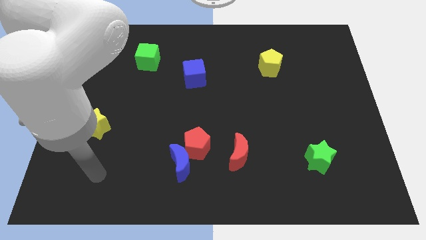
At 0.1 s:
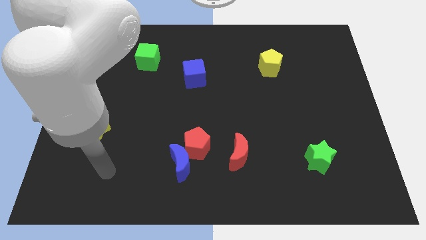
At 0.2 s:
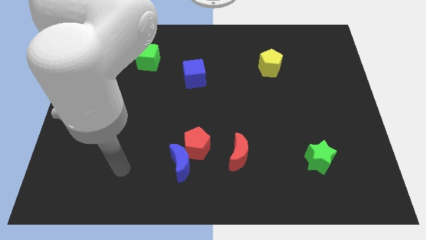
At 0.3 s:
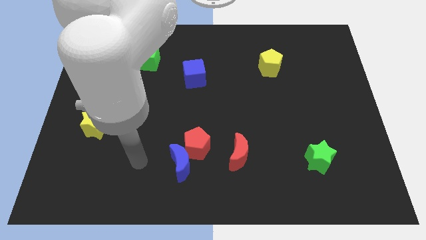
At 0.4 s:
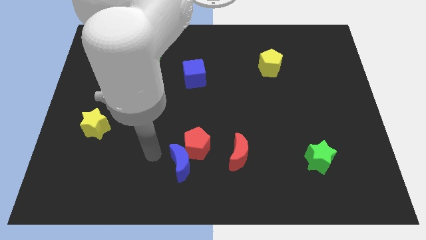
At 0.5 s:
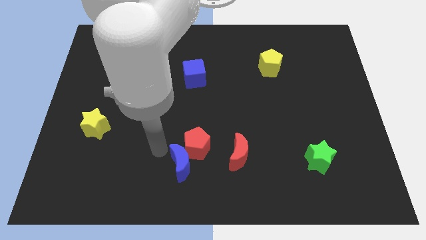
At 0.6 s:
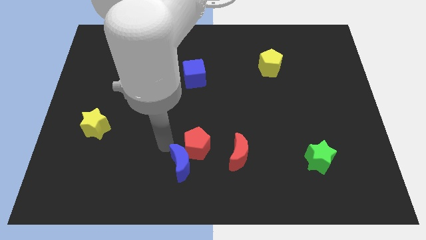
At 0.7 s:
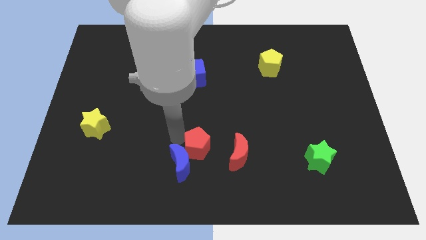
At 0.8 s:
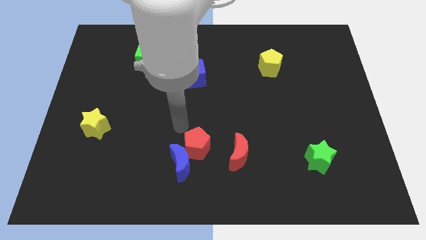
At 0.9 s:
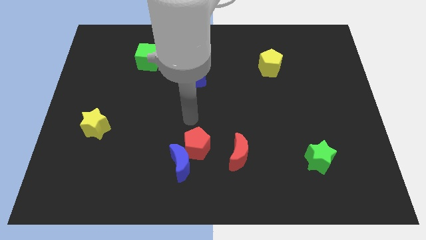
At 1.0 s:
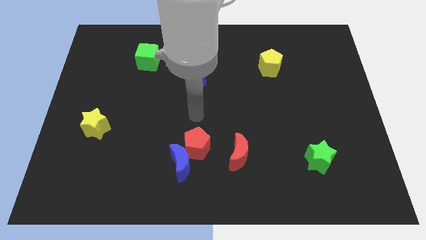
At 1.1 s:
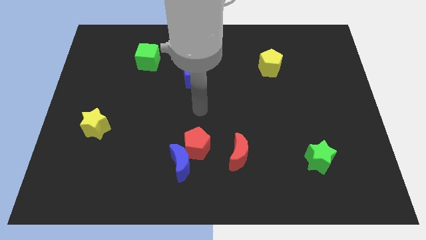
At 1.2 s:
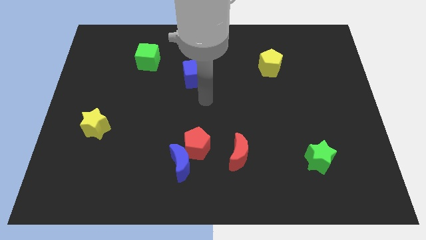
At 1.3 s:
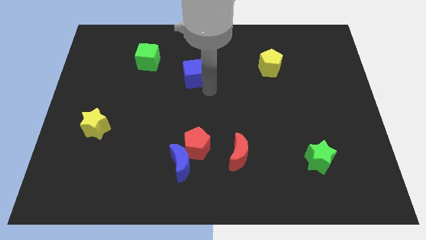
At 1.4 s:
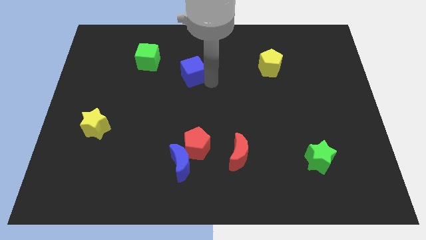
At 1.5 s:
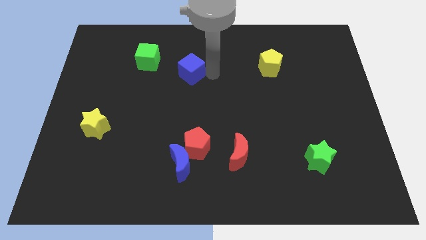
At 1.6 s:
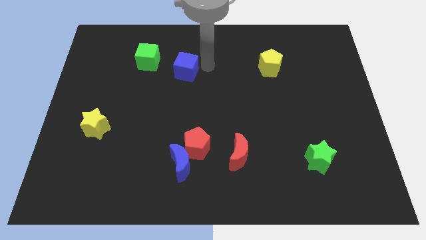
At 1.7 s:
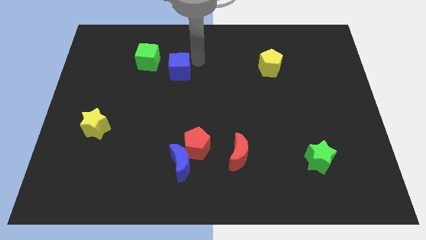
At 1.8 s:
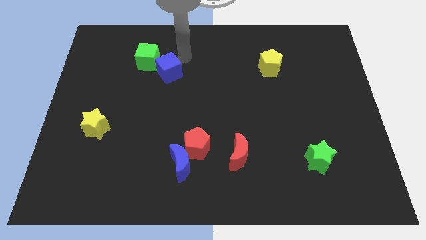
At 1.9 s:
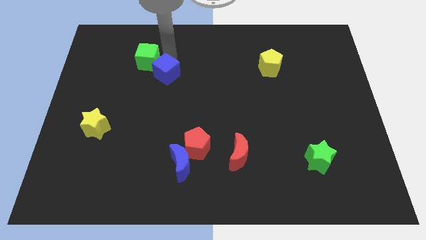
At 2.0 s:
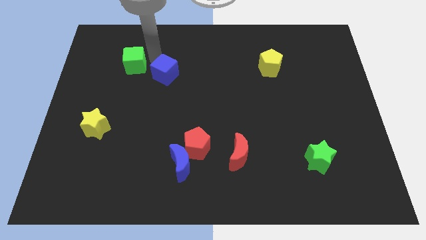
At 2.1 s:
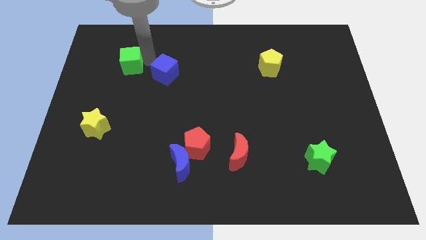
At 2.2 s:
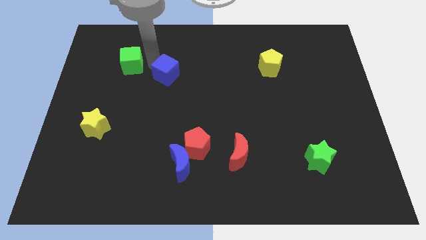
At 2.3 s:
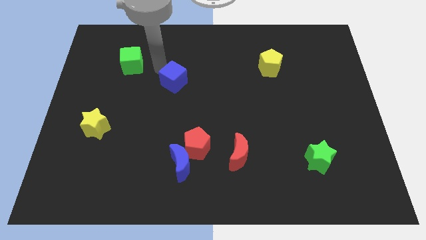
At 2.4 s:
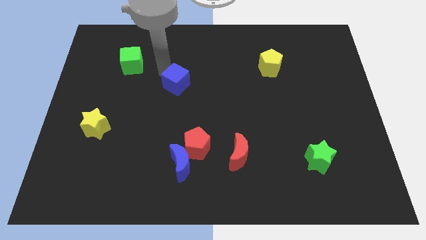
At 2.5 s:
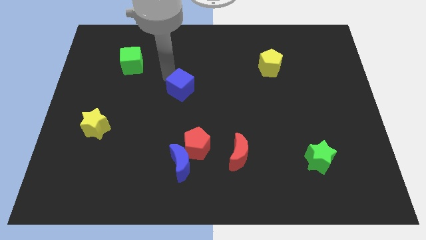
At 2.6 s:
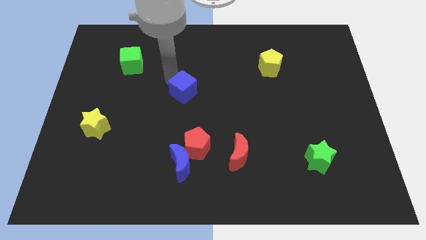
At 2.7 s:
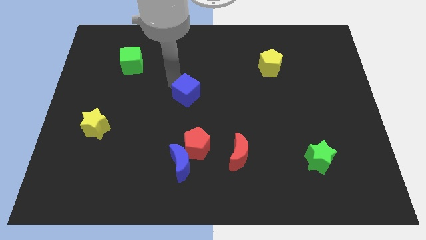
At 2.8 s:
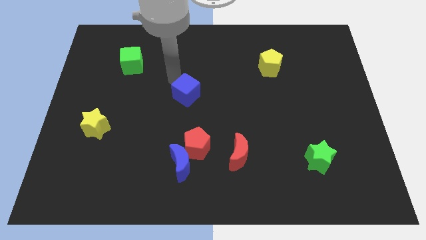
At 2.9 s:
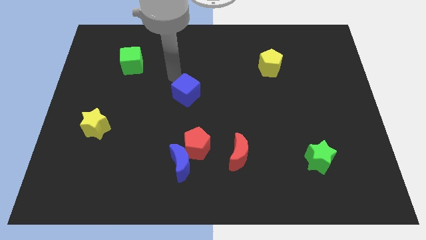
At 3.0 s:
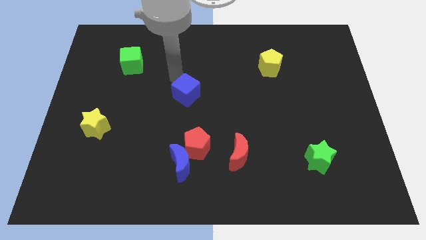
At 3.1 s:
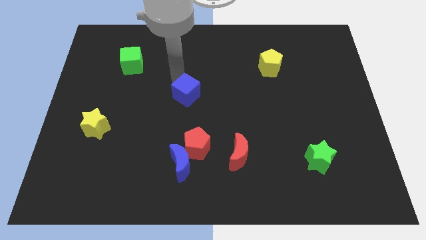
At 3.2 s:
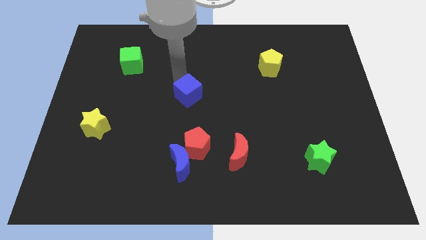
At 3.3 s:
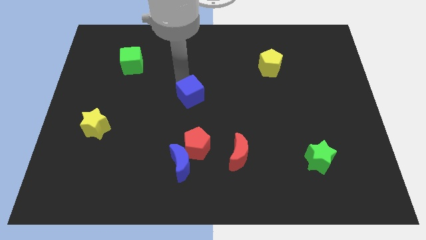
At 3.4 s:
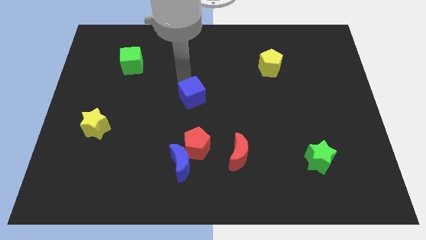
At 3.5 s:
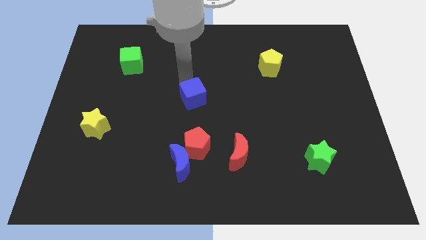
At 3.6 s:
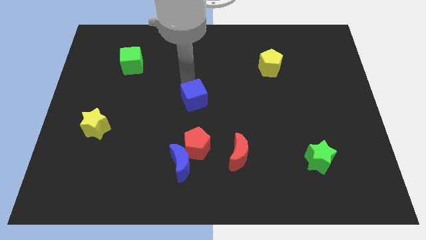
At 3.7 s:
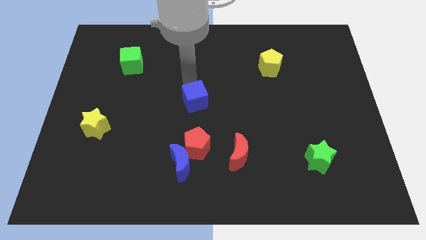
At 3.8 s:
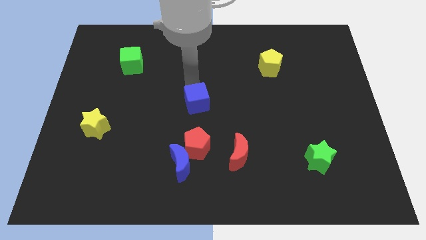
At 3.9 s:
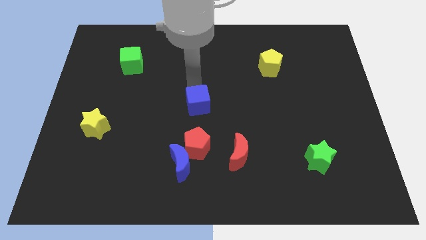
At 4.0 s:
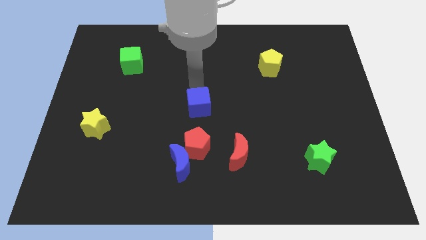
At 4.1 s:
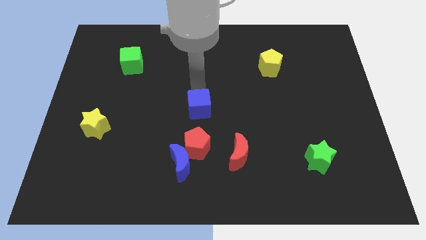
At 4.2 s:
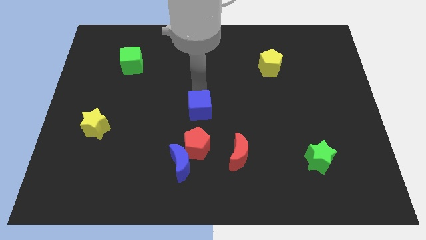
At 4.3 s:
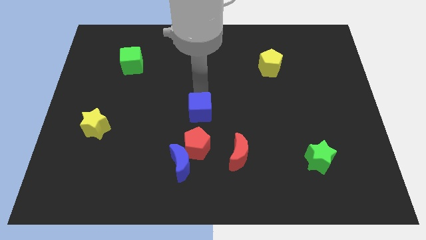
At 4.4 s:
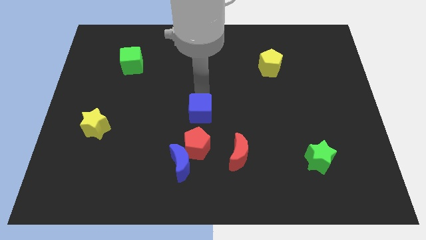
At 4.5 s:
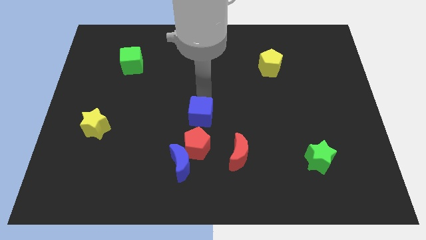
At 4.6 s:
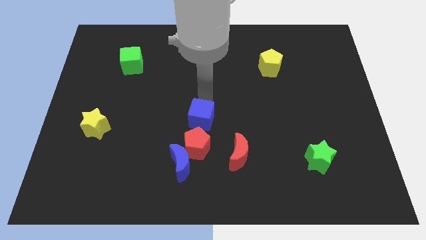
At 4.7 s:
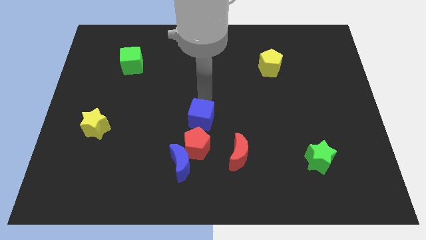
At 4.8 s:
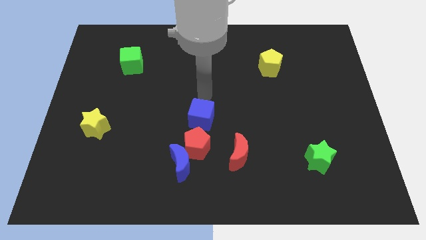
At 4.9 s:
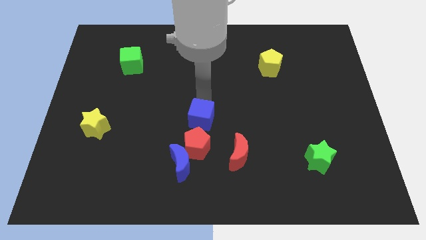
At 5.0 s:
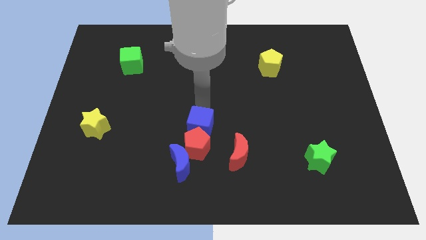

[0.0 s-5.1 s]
put the blue cube towards the red pentagon

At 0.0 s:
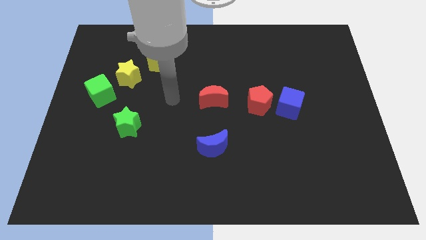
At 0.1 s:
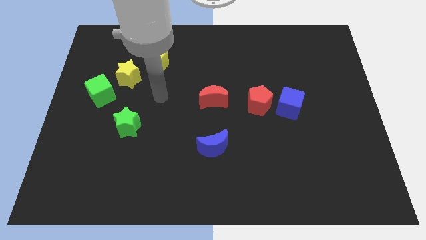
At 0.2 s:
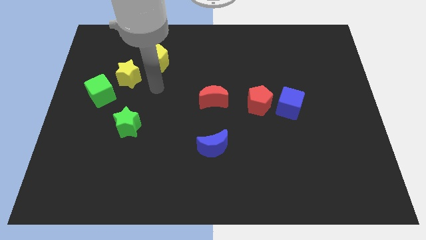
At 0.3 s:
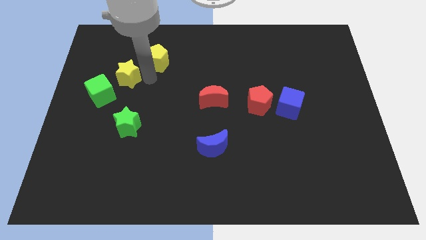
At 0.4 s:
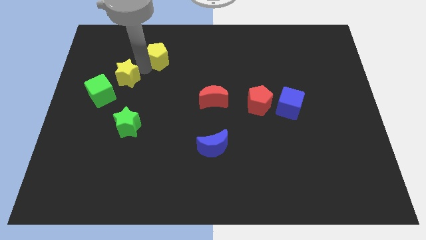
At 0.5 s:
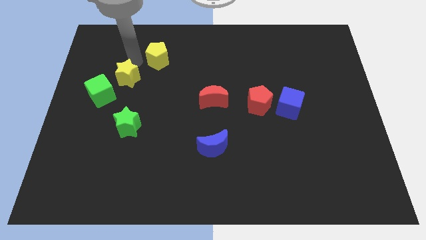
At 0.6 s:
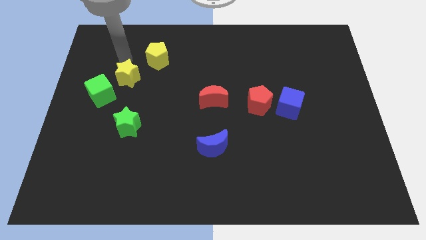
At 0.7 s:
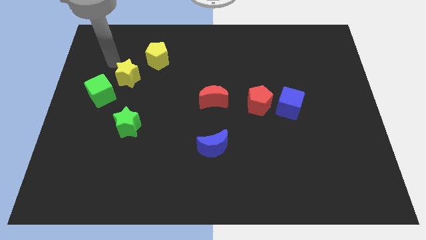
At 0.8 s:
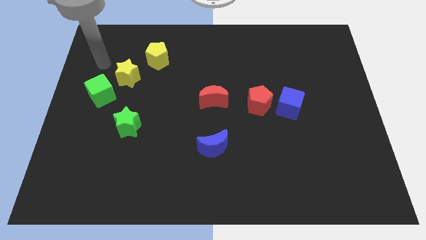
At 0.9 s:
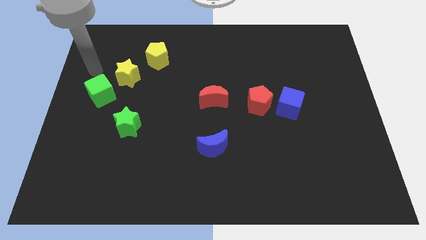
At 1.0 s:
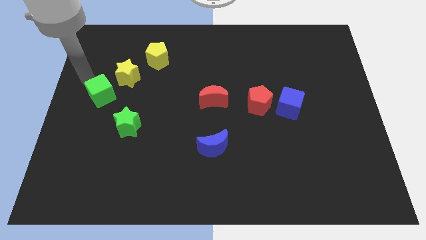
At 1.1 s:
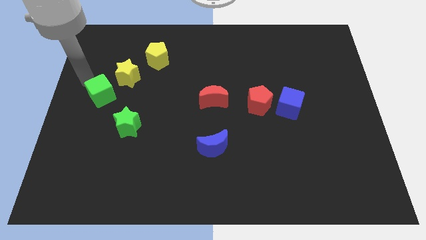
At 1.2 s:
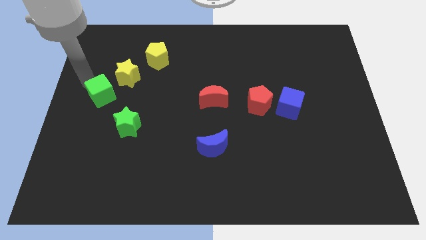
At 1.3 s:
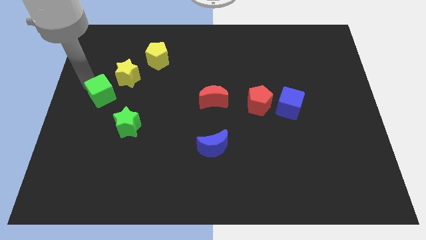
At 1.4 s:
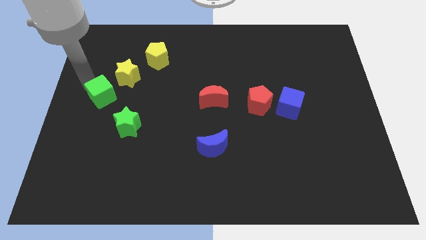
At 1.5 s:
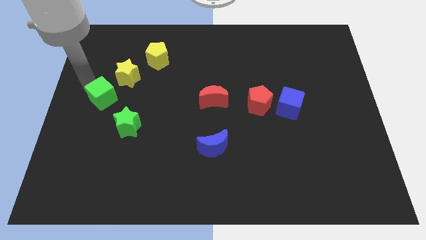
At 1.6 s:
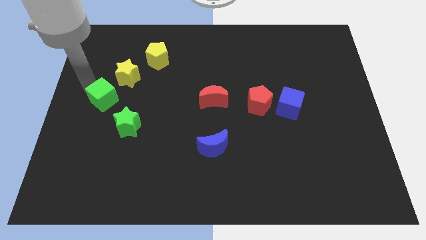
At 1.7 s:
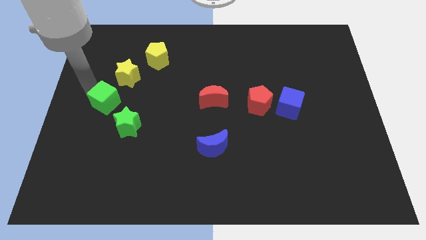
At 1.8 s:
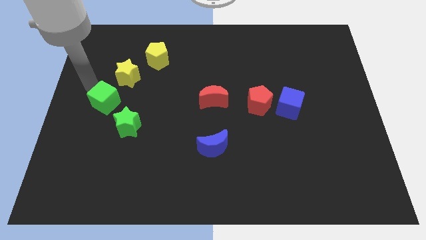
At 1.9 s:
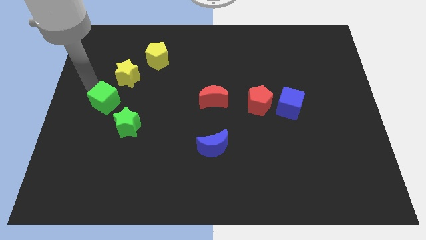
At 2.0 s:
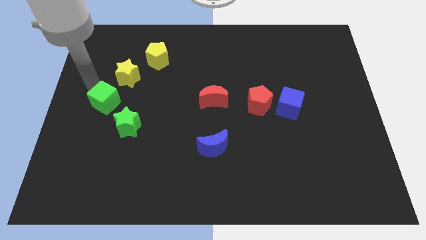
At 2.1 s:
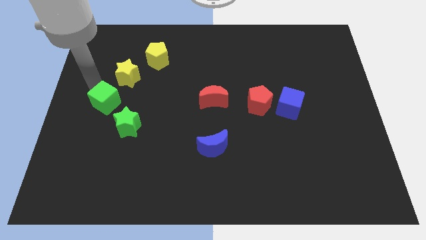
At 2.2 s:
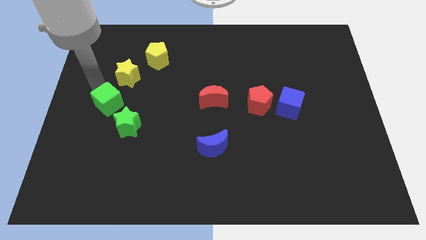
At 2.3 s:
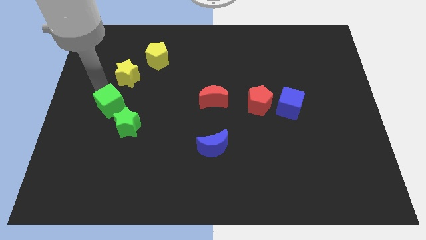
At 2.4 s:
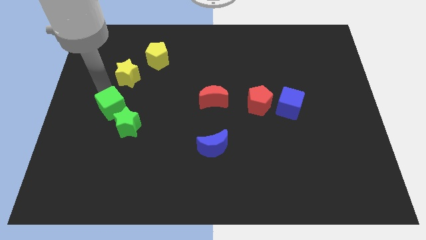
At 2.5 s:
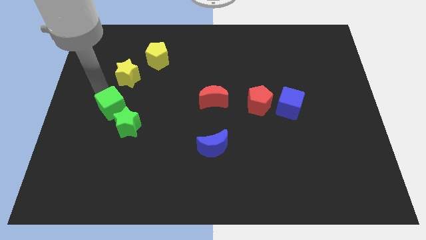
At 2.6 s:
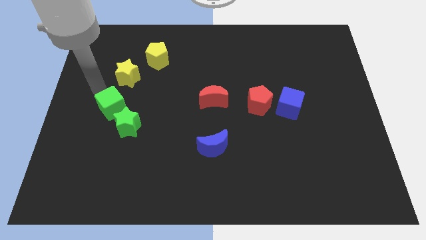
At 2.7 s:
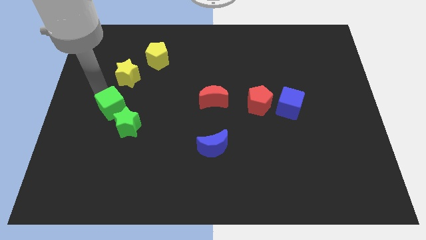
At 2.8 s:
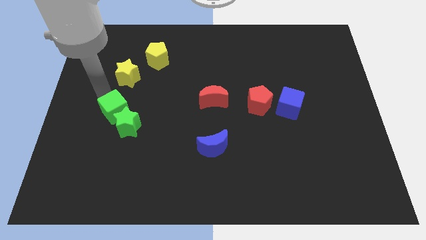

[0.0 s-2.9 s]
move the green cube next to the green star
